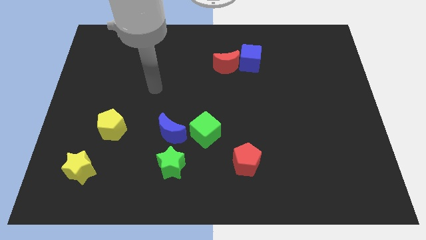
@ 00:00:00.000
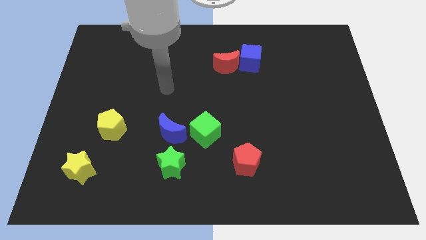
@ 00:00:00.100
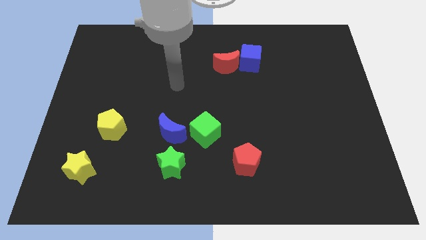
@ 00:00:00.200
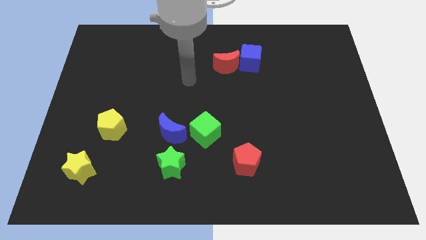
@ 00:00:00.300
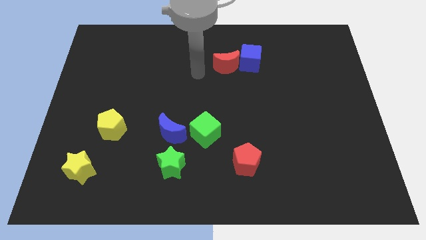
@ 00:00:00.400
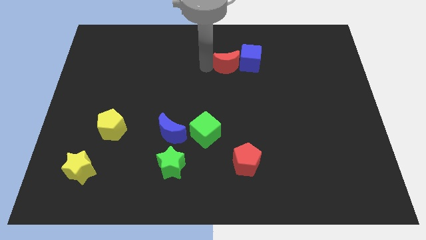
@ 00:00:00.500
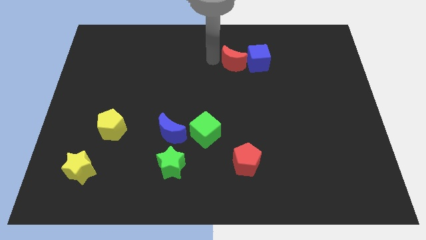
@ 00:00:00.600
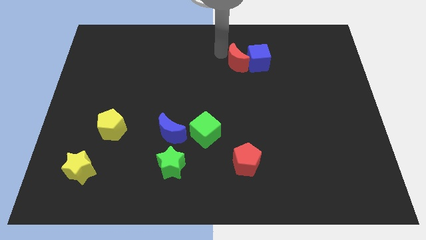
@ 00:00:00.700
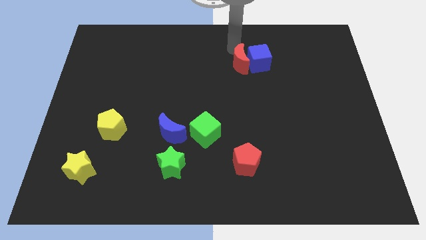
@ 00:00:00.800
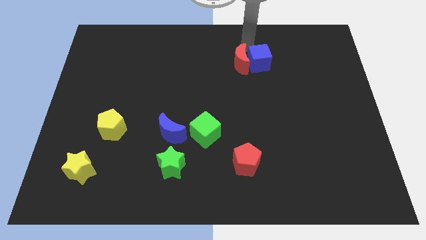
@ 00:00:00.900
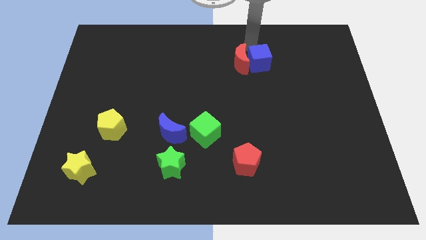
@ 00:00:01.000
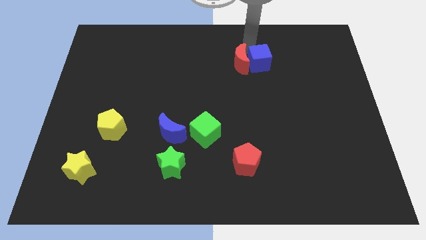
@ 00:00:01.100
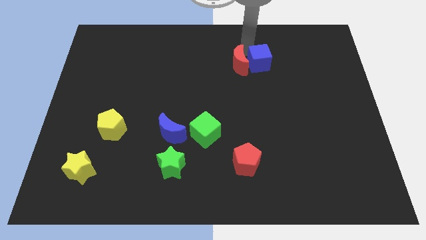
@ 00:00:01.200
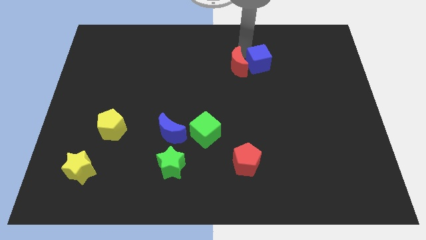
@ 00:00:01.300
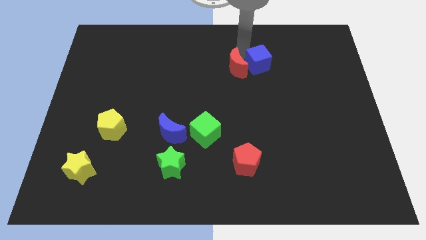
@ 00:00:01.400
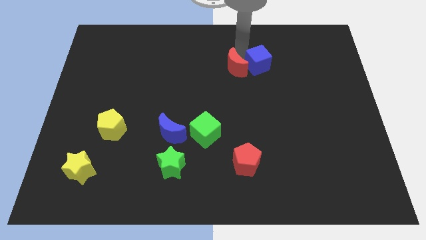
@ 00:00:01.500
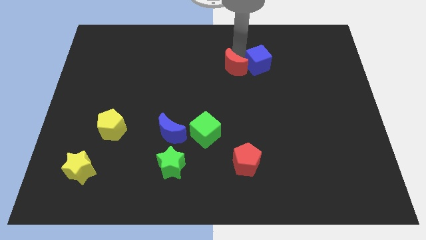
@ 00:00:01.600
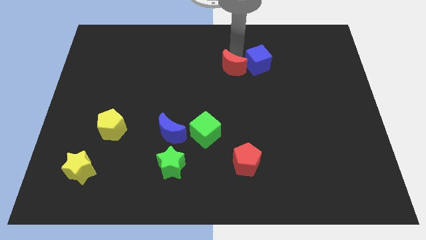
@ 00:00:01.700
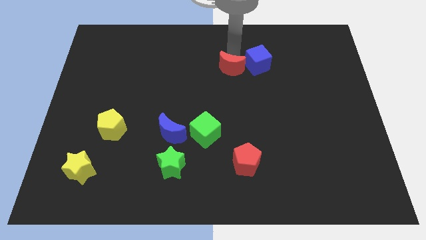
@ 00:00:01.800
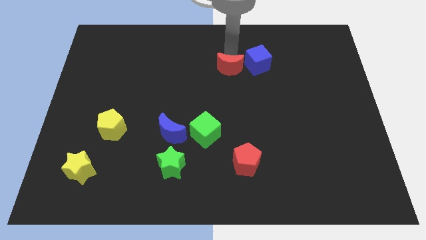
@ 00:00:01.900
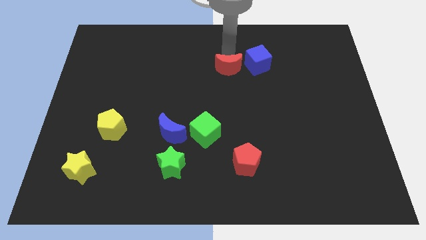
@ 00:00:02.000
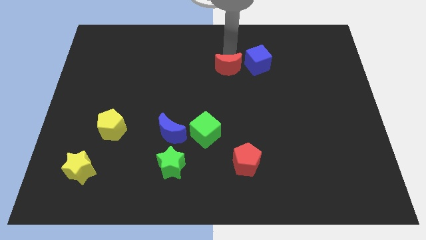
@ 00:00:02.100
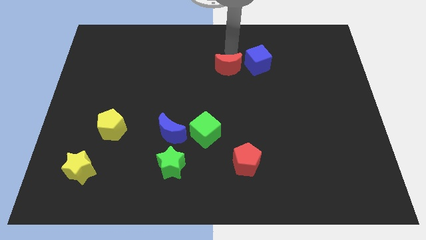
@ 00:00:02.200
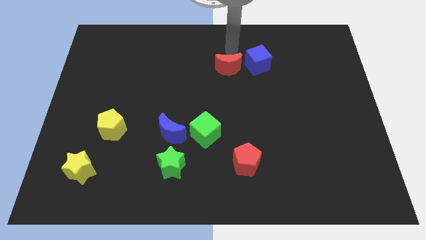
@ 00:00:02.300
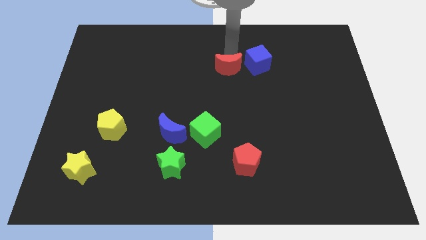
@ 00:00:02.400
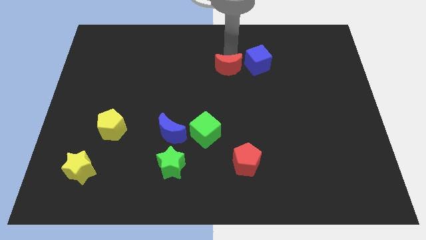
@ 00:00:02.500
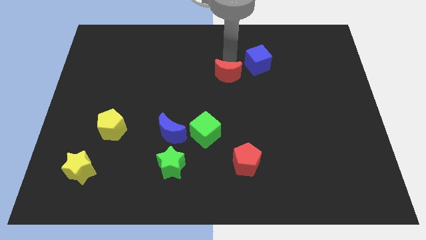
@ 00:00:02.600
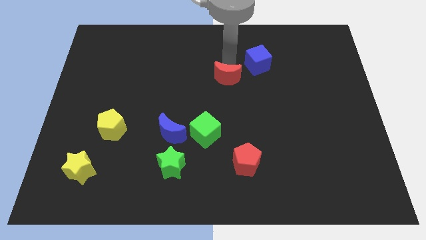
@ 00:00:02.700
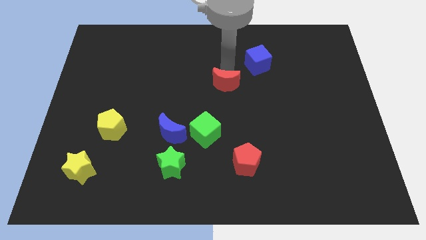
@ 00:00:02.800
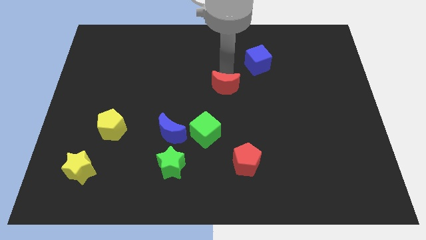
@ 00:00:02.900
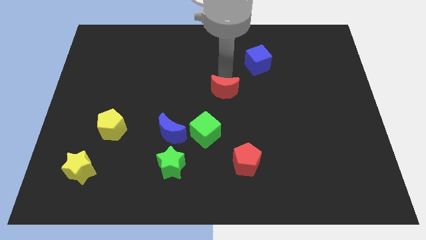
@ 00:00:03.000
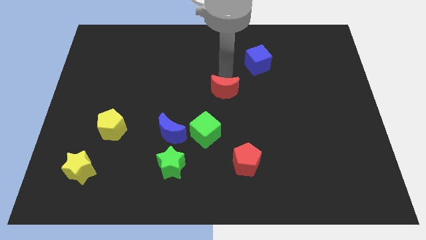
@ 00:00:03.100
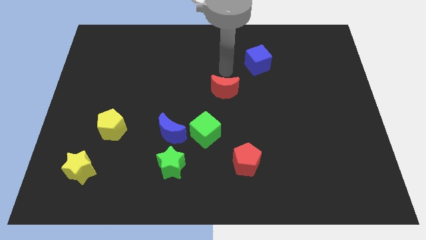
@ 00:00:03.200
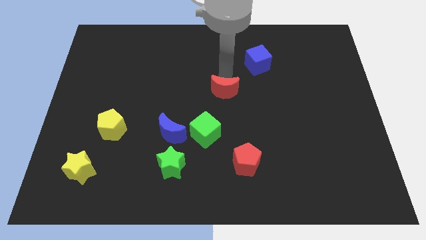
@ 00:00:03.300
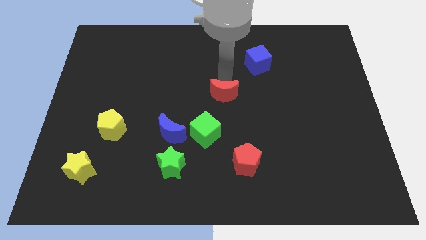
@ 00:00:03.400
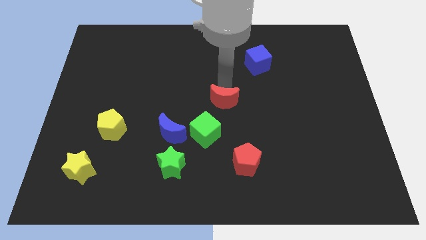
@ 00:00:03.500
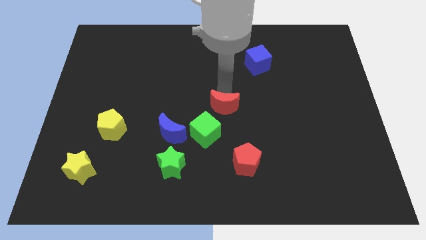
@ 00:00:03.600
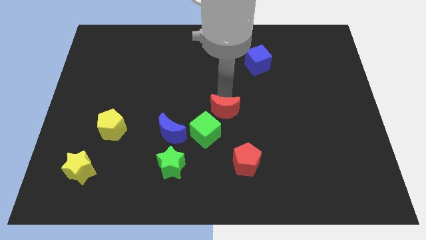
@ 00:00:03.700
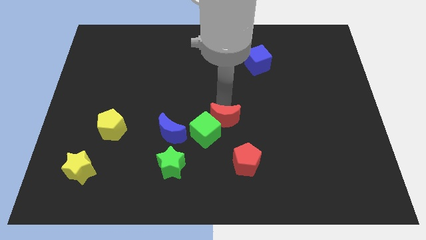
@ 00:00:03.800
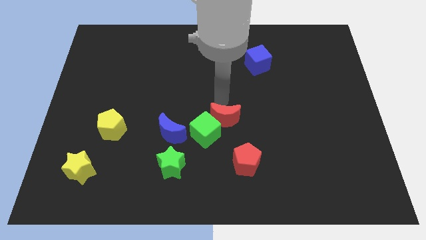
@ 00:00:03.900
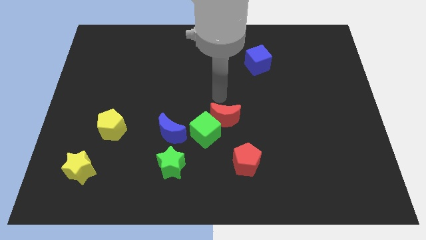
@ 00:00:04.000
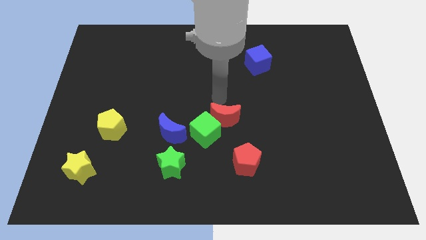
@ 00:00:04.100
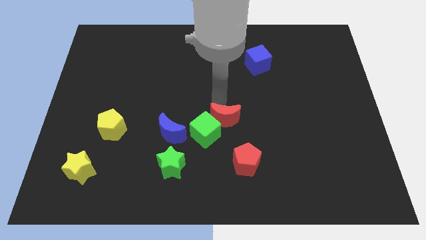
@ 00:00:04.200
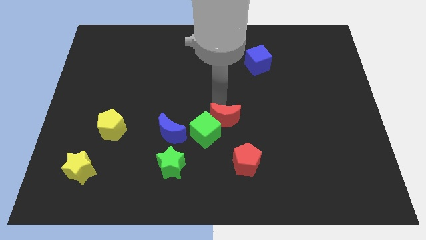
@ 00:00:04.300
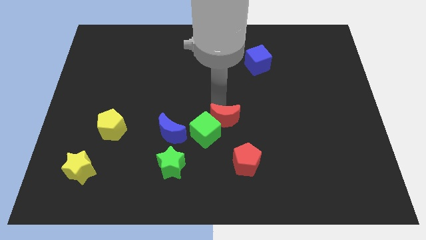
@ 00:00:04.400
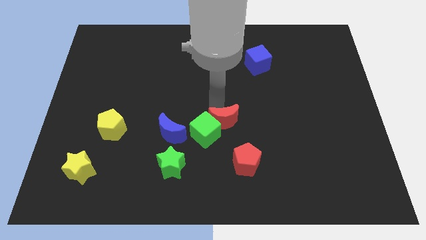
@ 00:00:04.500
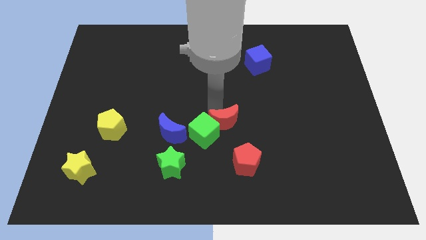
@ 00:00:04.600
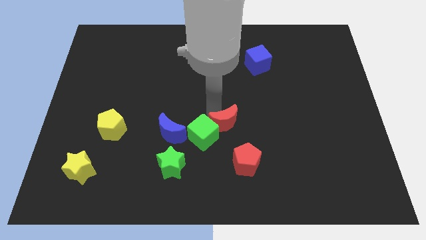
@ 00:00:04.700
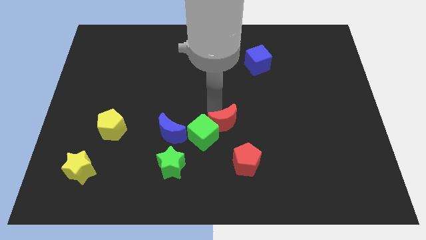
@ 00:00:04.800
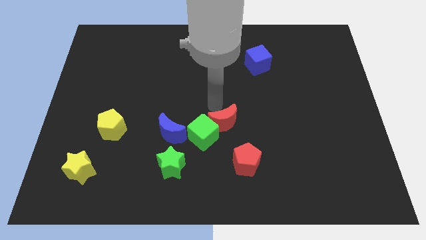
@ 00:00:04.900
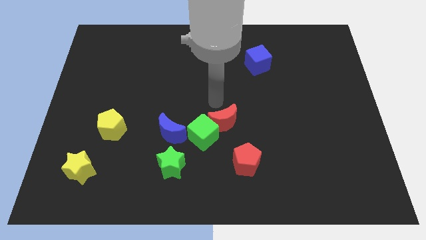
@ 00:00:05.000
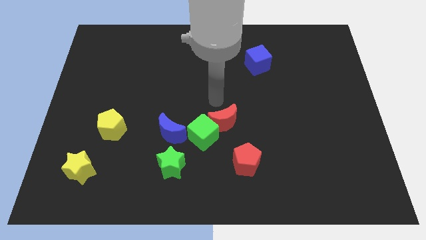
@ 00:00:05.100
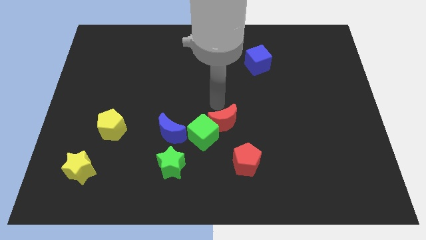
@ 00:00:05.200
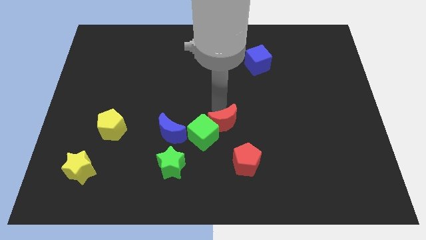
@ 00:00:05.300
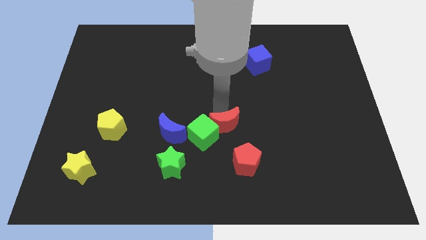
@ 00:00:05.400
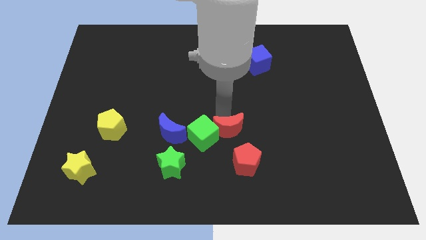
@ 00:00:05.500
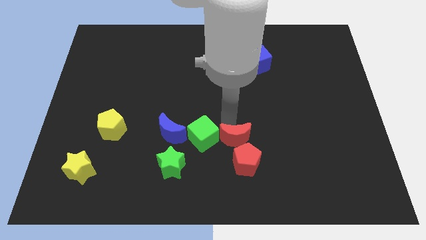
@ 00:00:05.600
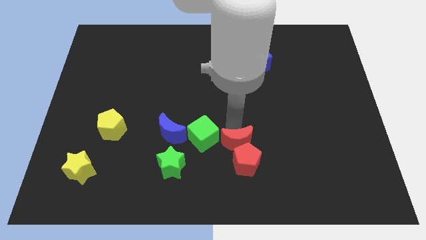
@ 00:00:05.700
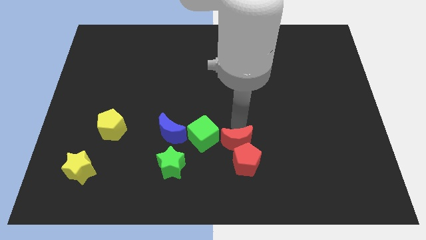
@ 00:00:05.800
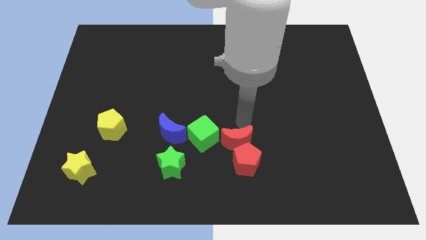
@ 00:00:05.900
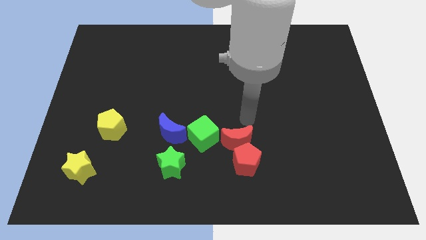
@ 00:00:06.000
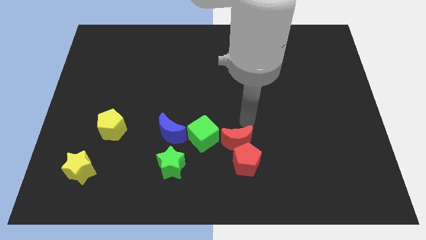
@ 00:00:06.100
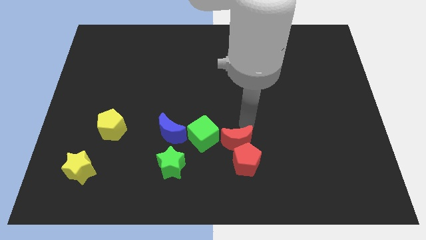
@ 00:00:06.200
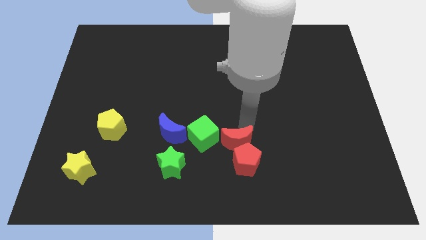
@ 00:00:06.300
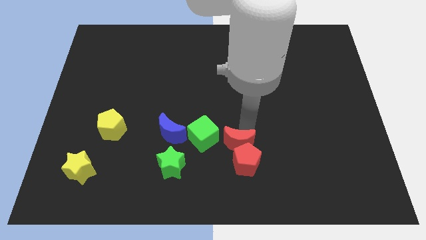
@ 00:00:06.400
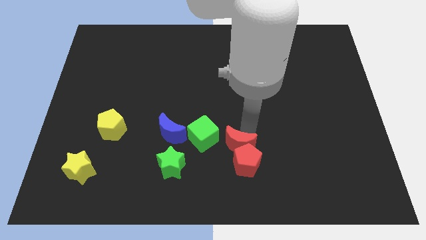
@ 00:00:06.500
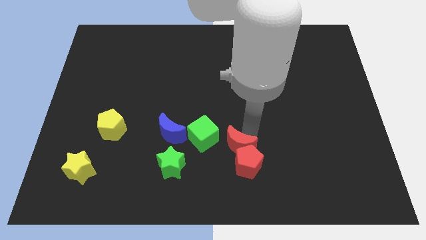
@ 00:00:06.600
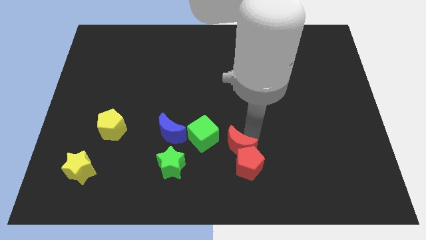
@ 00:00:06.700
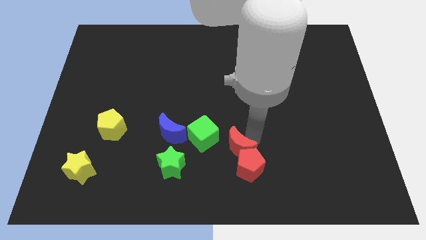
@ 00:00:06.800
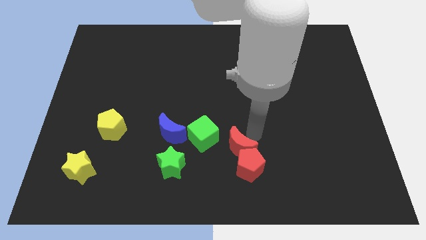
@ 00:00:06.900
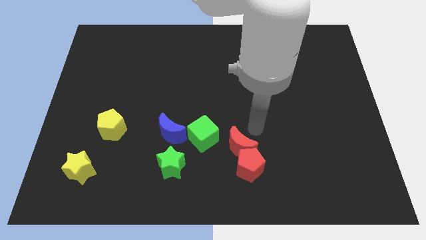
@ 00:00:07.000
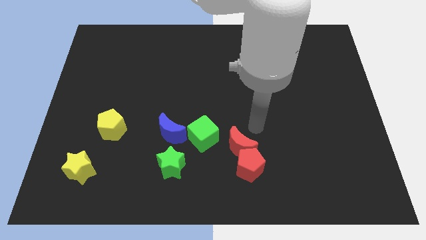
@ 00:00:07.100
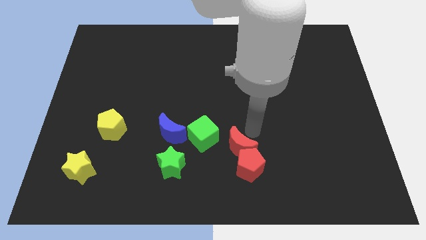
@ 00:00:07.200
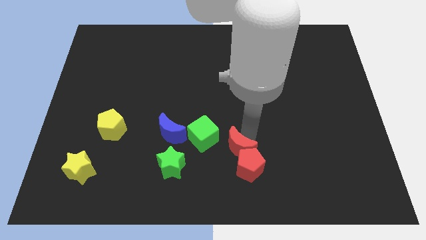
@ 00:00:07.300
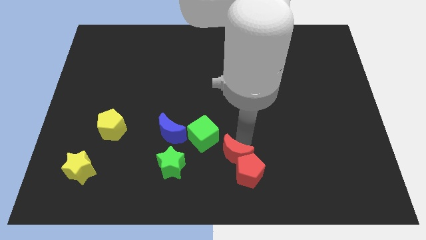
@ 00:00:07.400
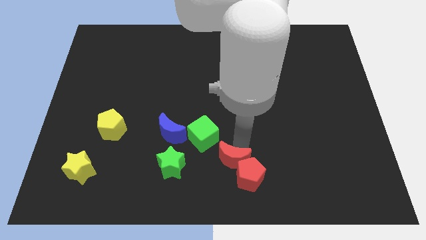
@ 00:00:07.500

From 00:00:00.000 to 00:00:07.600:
put the red moon to the bottom
